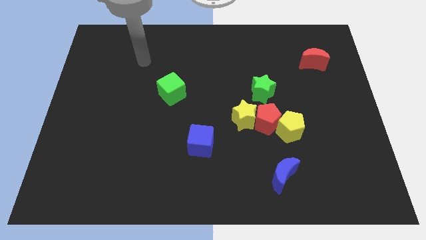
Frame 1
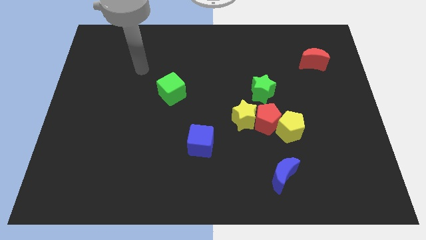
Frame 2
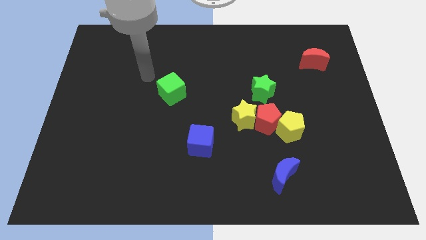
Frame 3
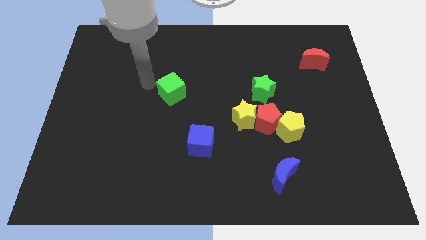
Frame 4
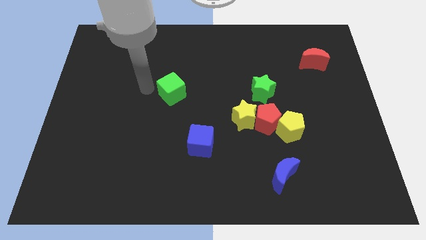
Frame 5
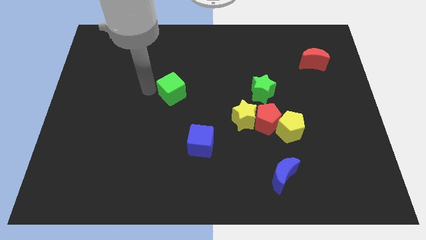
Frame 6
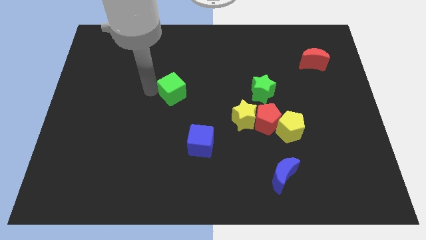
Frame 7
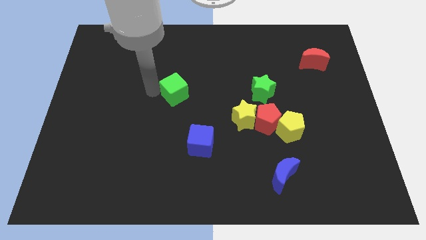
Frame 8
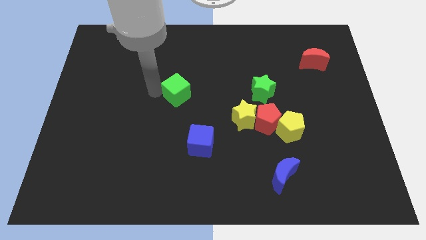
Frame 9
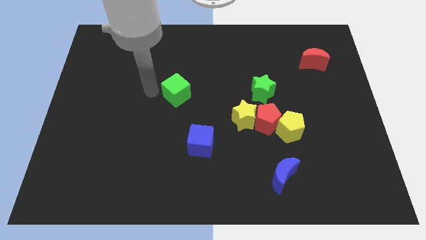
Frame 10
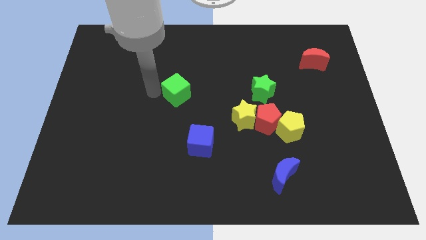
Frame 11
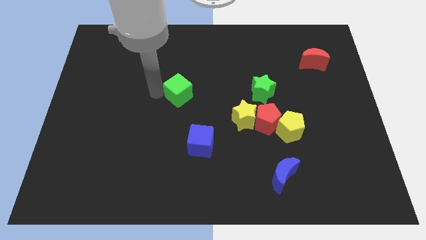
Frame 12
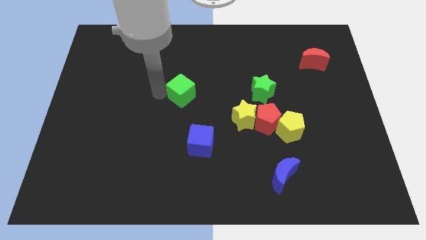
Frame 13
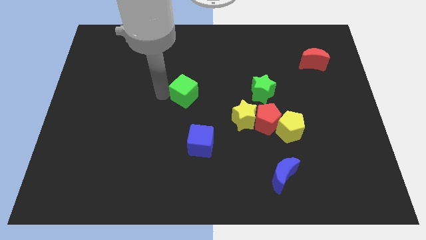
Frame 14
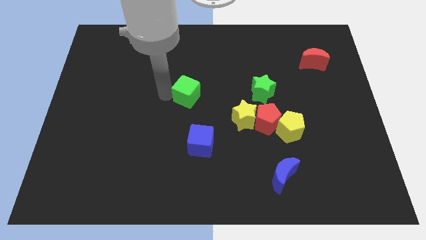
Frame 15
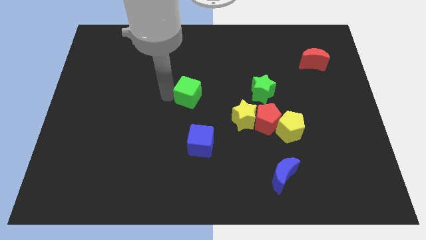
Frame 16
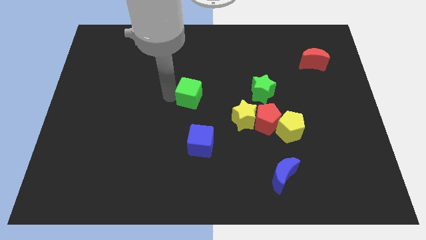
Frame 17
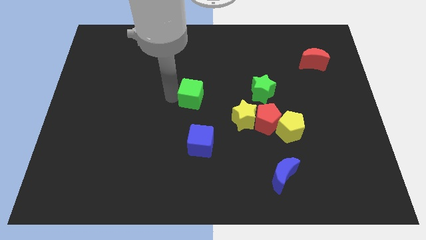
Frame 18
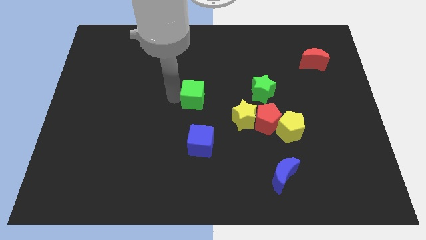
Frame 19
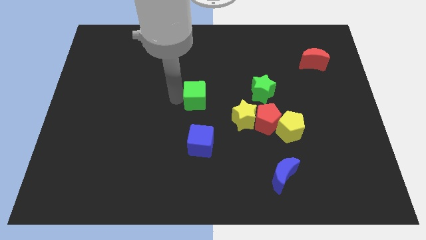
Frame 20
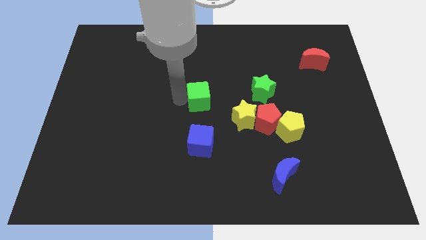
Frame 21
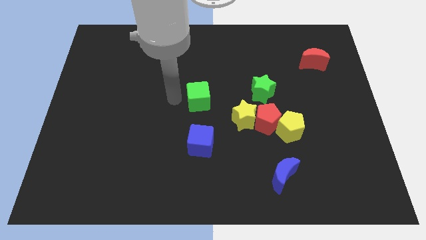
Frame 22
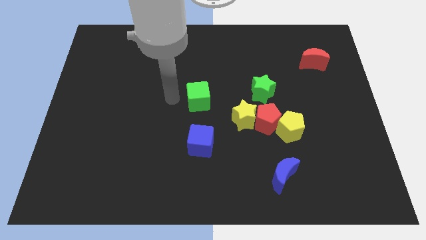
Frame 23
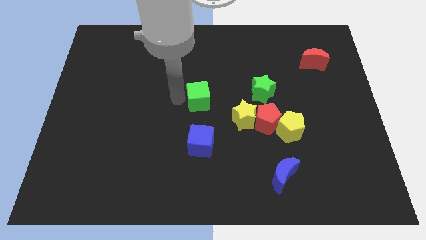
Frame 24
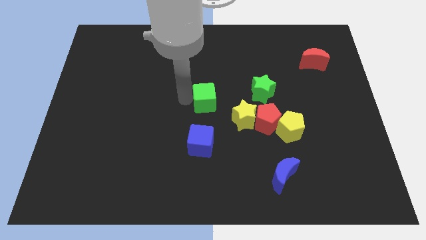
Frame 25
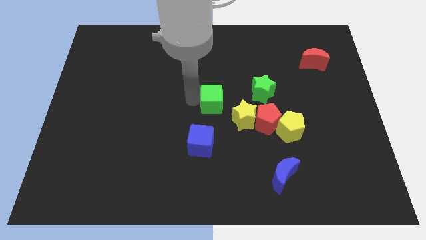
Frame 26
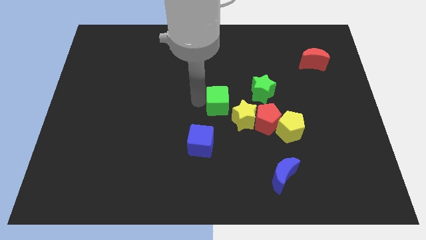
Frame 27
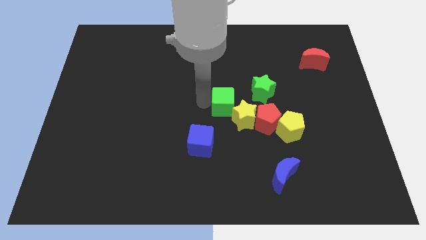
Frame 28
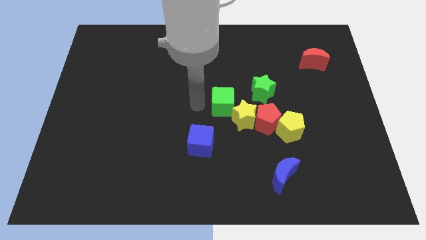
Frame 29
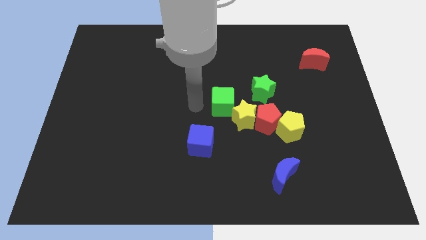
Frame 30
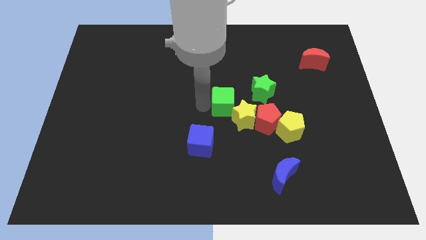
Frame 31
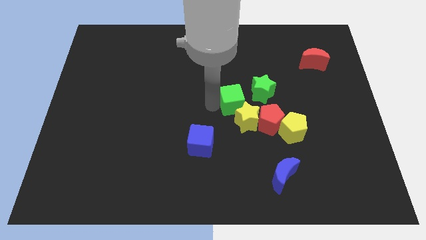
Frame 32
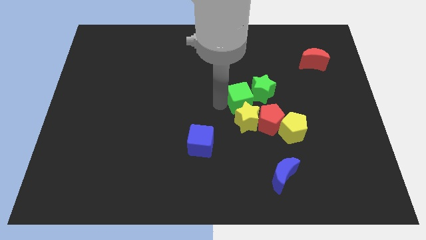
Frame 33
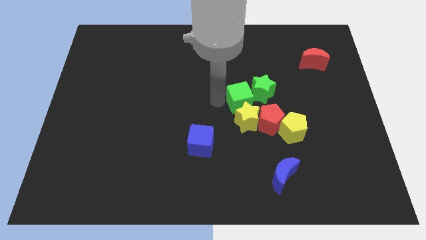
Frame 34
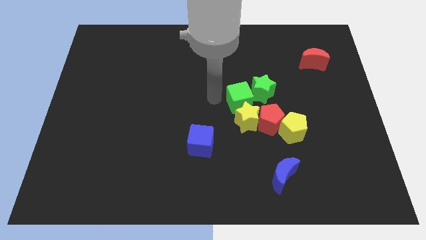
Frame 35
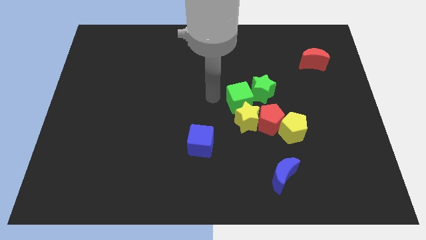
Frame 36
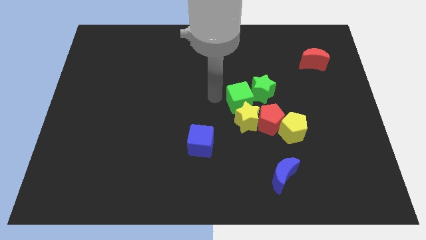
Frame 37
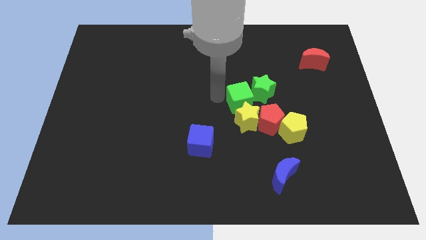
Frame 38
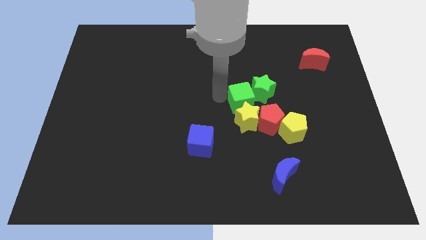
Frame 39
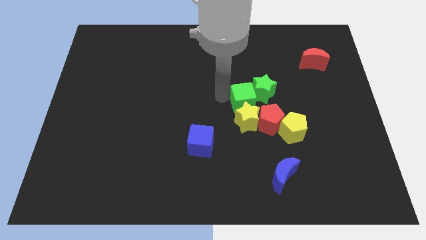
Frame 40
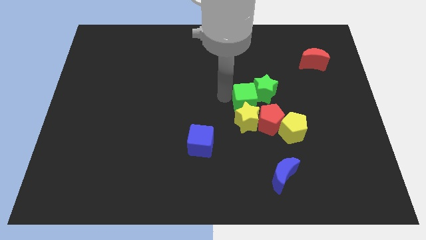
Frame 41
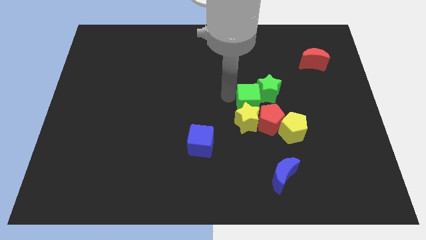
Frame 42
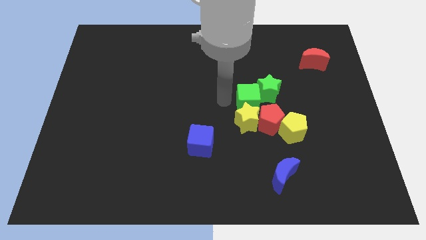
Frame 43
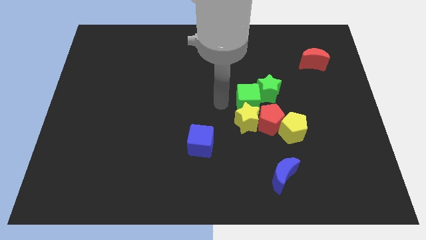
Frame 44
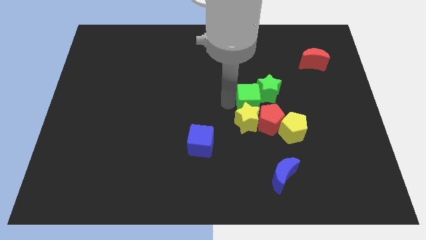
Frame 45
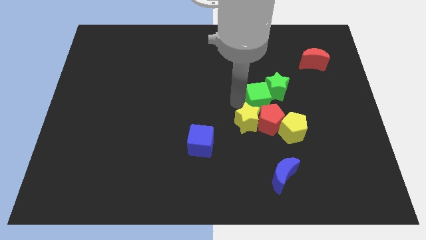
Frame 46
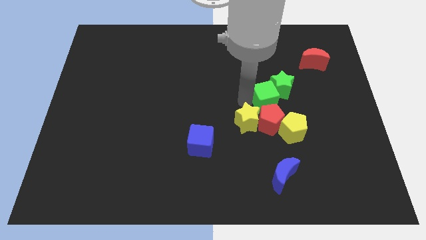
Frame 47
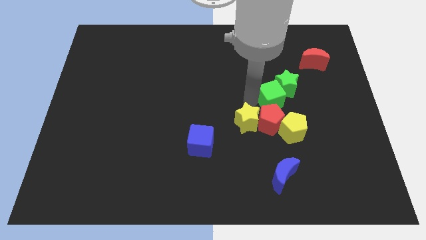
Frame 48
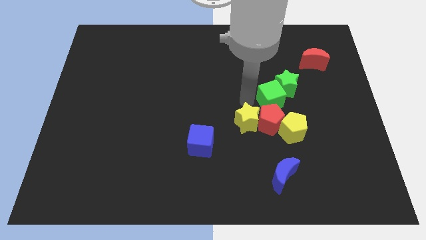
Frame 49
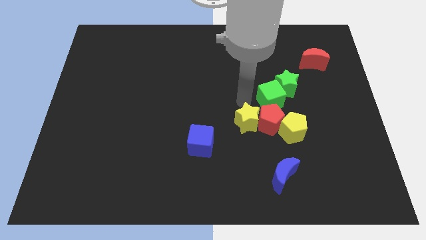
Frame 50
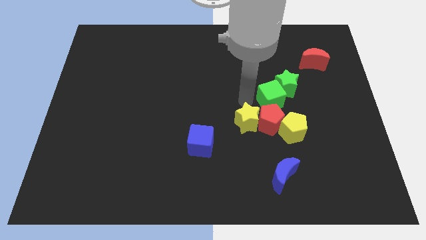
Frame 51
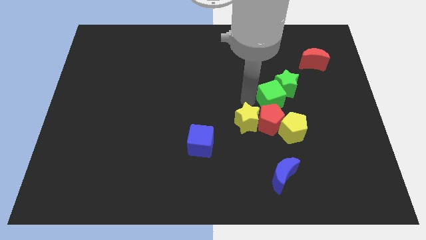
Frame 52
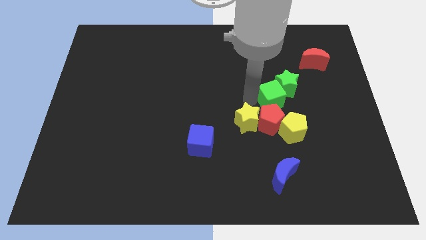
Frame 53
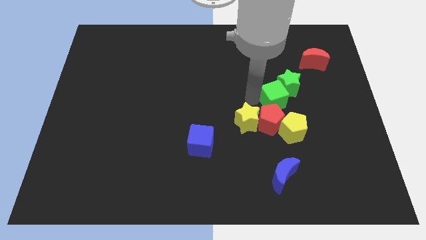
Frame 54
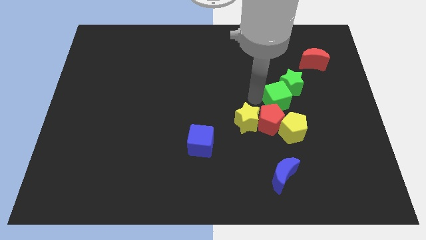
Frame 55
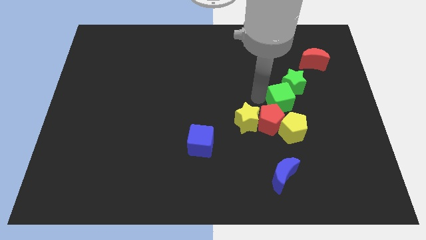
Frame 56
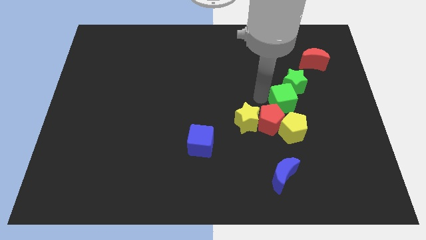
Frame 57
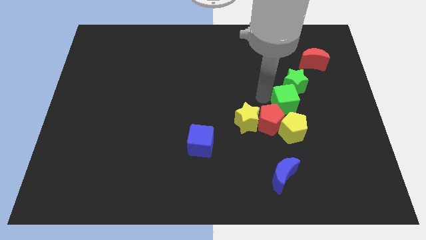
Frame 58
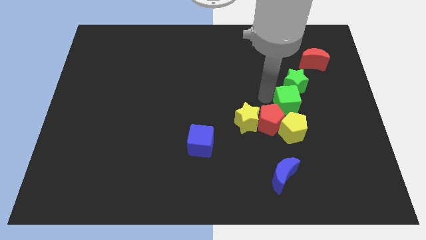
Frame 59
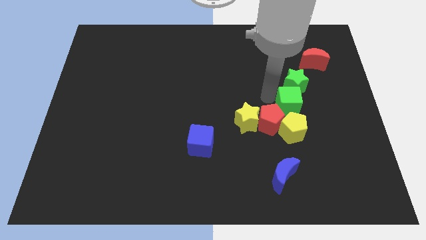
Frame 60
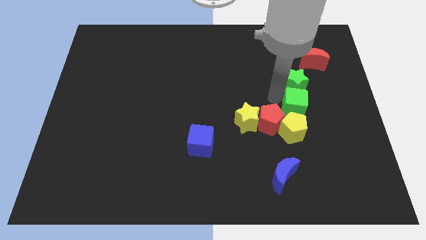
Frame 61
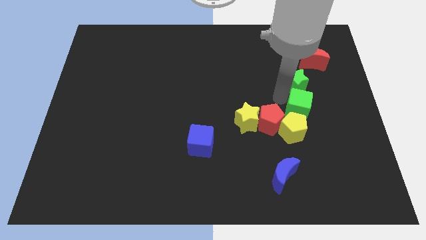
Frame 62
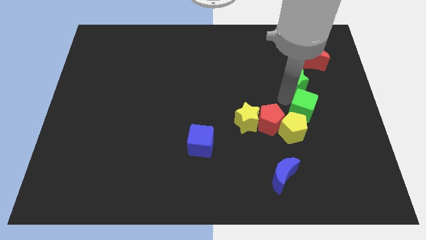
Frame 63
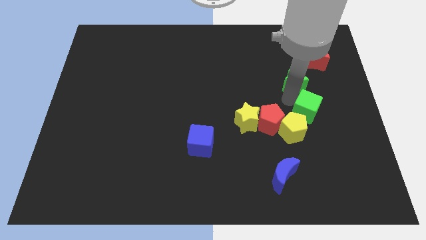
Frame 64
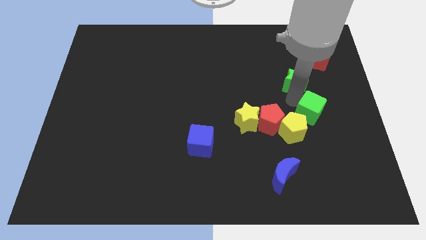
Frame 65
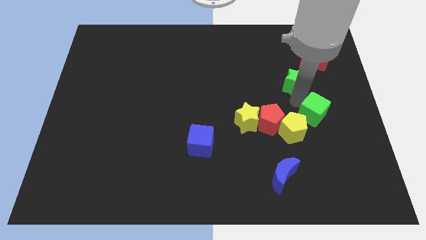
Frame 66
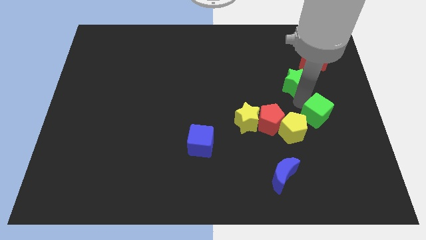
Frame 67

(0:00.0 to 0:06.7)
slide the green cube just right of the yellow pentagon

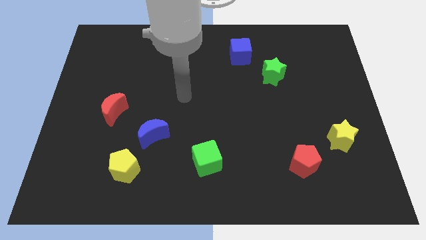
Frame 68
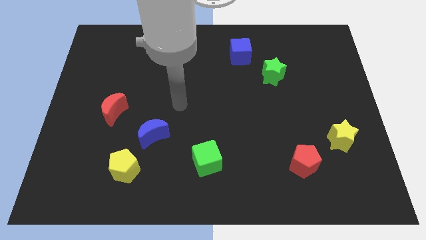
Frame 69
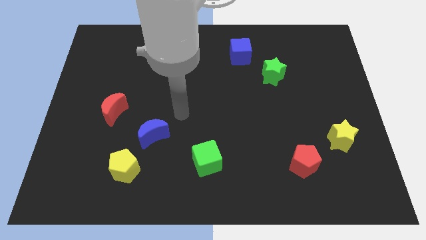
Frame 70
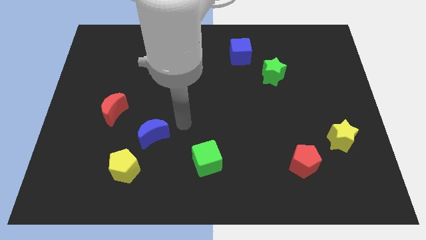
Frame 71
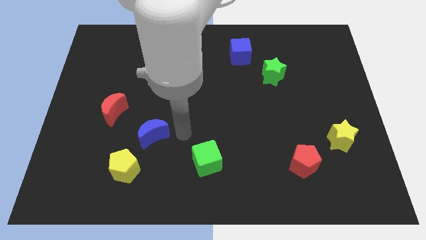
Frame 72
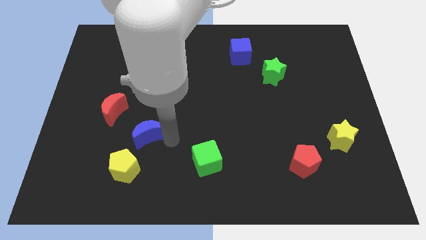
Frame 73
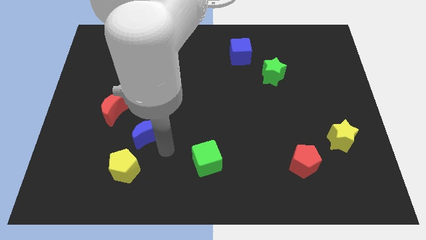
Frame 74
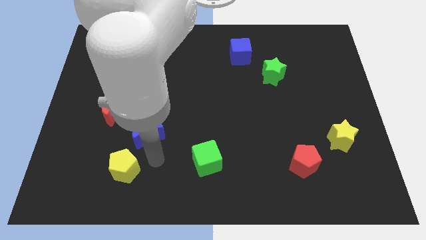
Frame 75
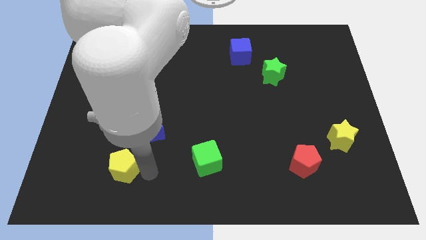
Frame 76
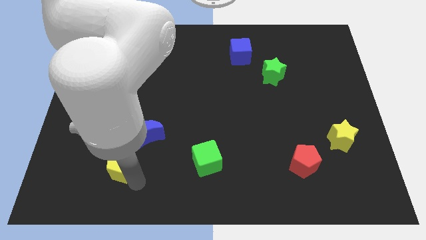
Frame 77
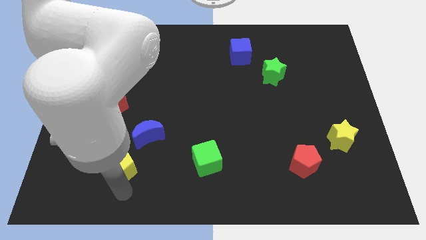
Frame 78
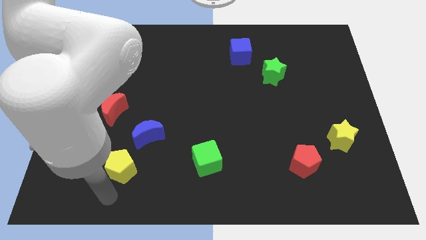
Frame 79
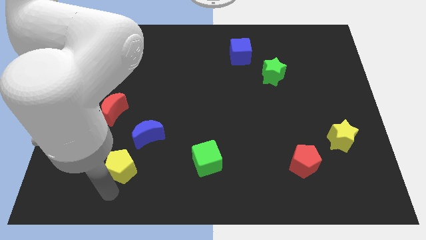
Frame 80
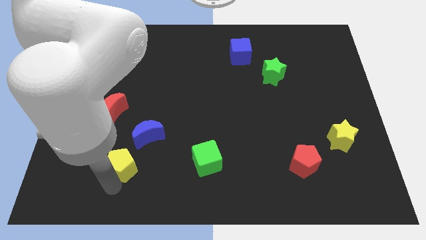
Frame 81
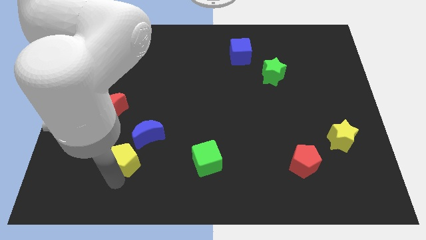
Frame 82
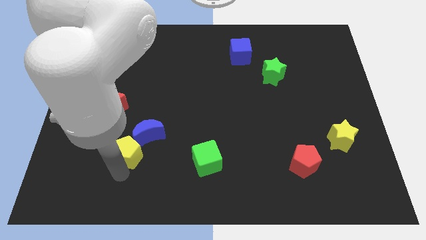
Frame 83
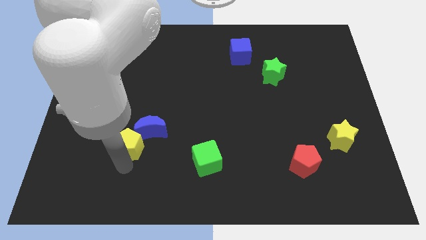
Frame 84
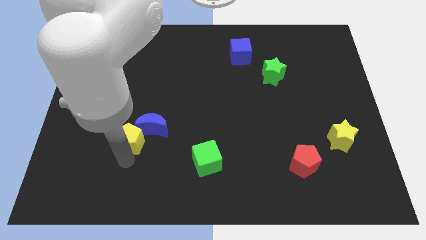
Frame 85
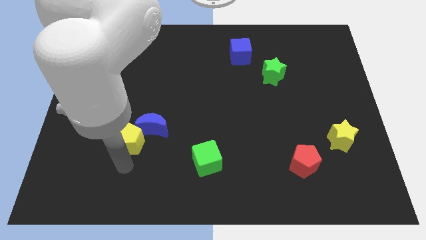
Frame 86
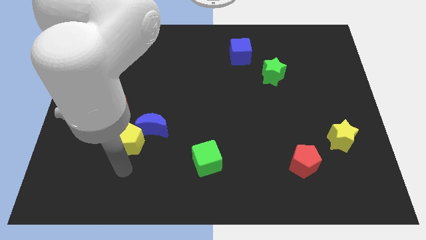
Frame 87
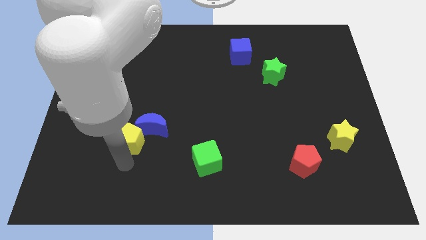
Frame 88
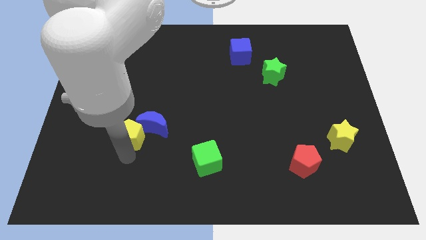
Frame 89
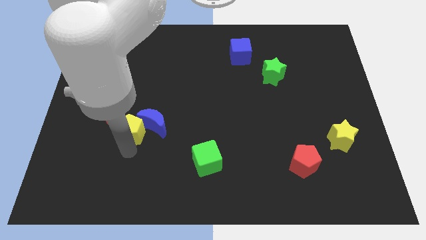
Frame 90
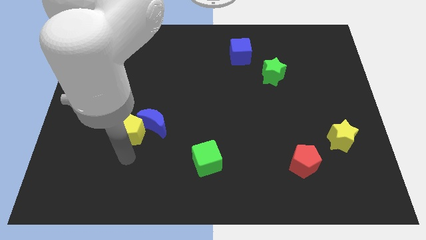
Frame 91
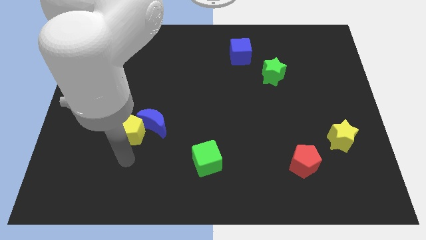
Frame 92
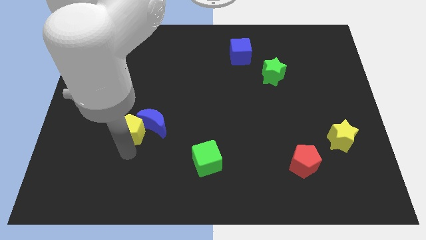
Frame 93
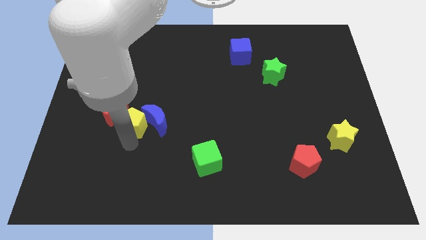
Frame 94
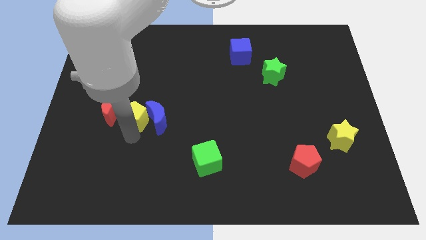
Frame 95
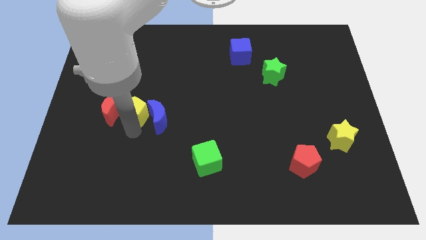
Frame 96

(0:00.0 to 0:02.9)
move the yellow pentagon to the top right of the red moon
